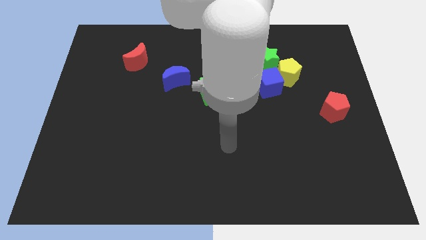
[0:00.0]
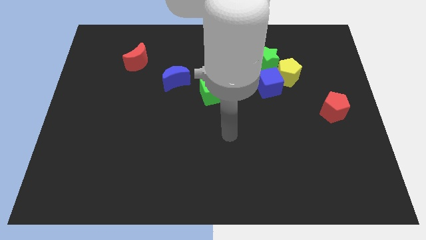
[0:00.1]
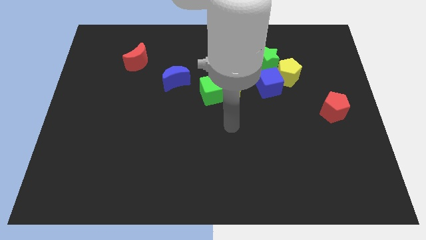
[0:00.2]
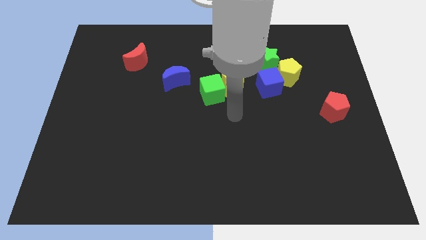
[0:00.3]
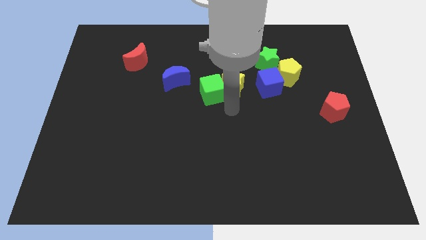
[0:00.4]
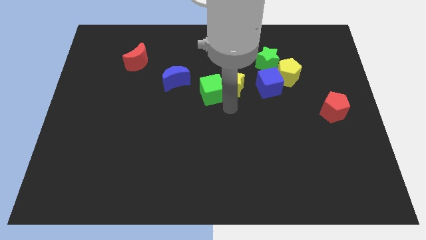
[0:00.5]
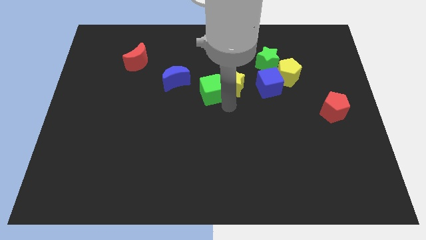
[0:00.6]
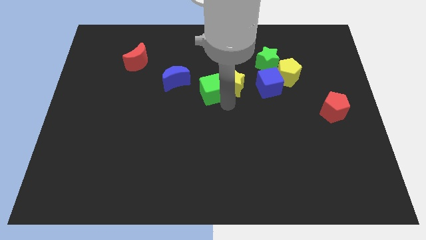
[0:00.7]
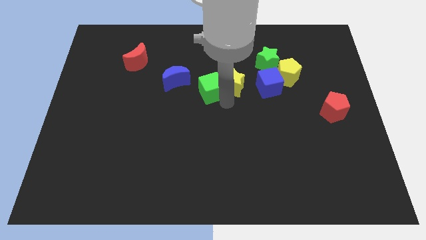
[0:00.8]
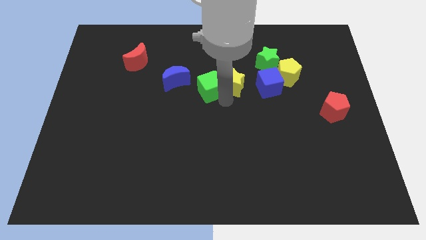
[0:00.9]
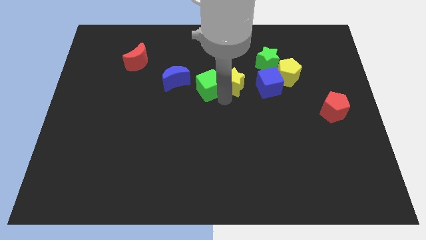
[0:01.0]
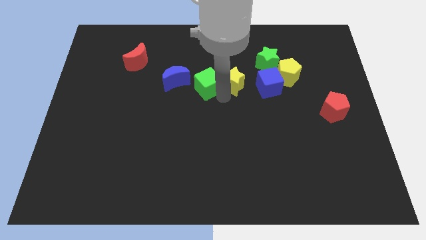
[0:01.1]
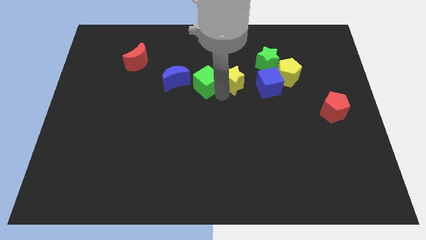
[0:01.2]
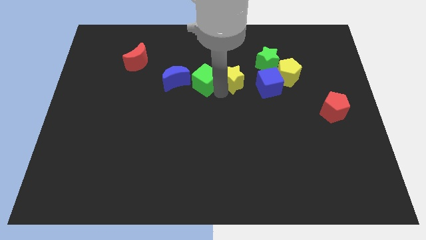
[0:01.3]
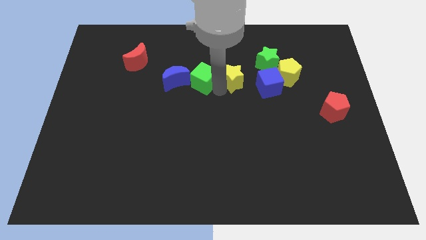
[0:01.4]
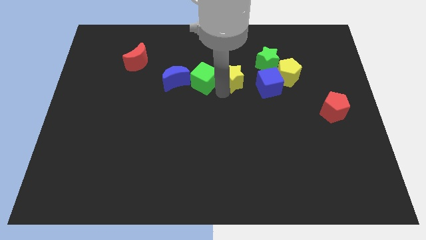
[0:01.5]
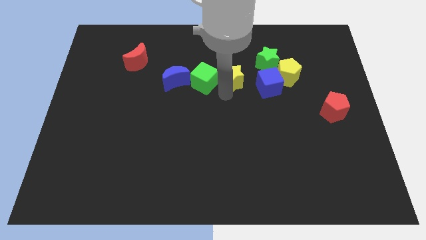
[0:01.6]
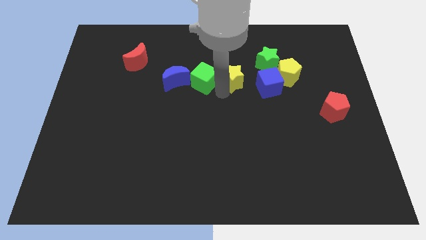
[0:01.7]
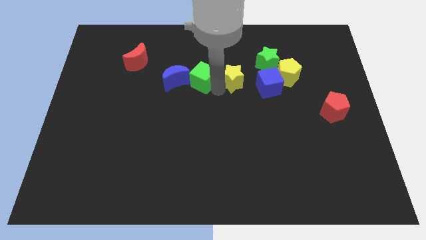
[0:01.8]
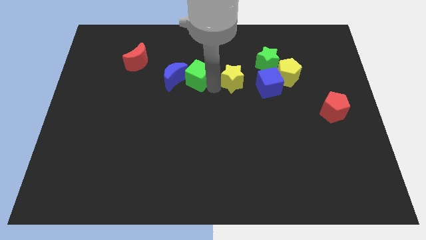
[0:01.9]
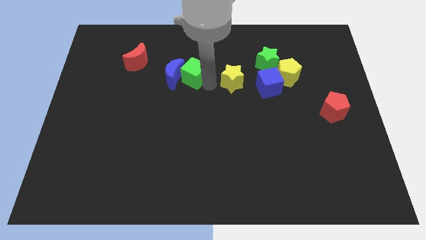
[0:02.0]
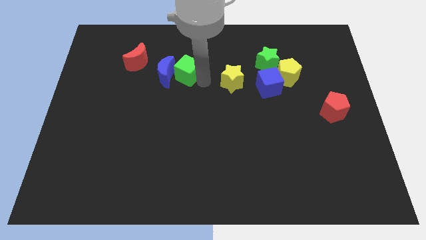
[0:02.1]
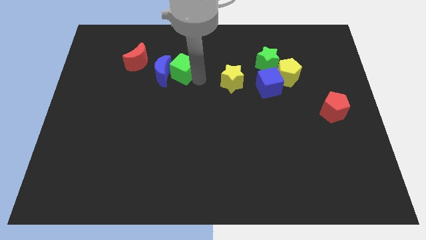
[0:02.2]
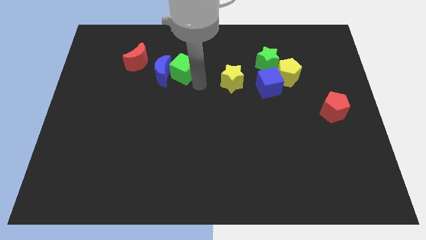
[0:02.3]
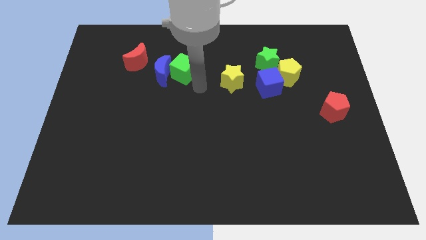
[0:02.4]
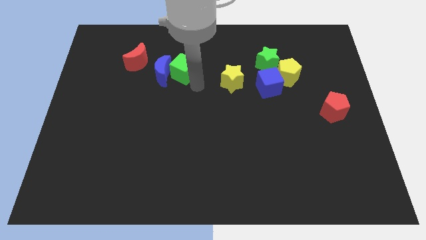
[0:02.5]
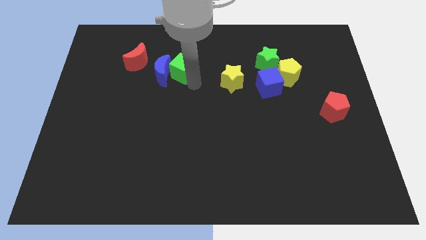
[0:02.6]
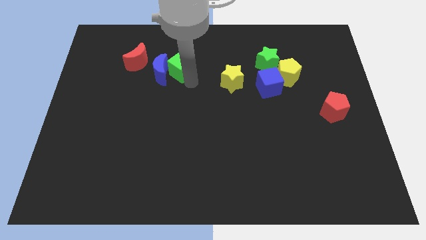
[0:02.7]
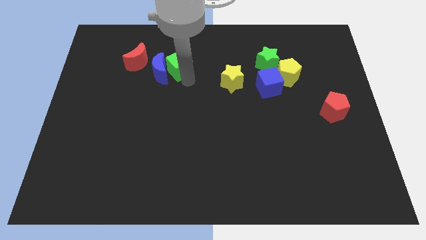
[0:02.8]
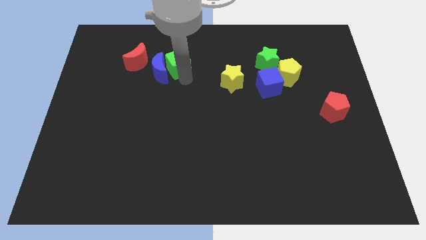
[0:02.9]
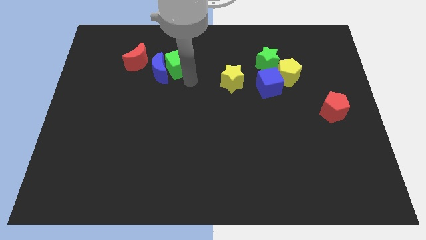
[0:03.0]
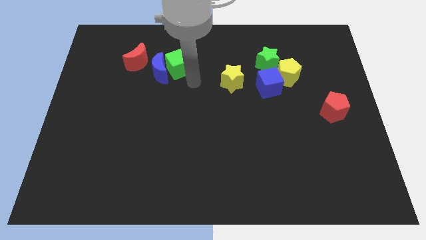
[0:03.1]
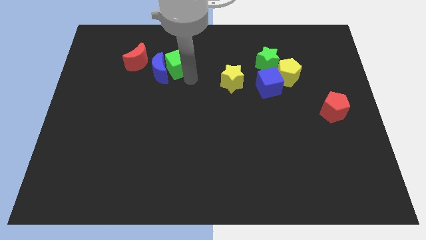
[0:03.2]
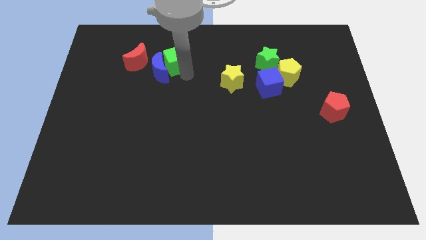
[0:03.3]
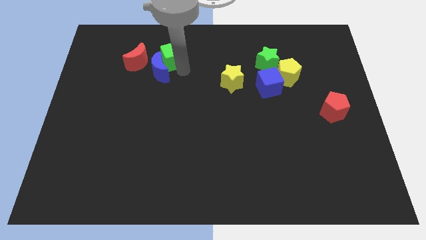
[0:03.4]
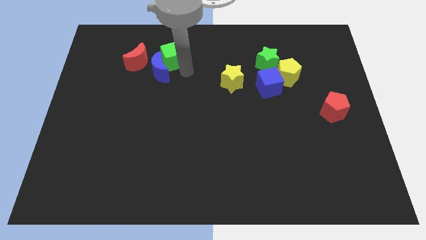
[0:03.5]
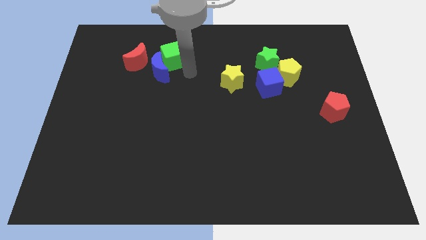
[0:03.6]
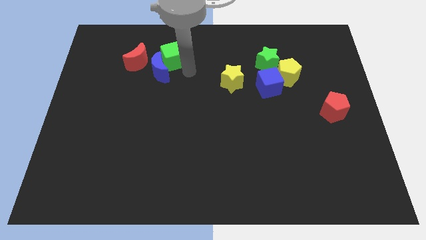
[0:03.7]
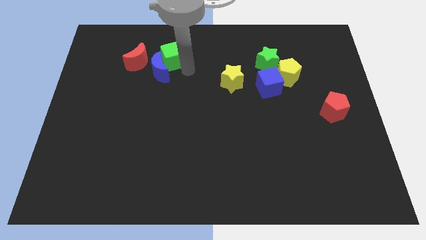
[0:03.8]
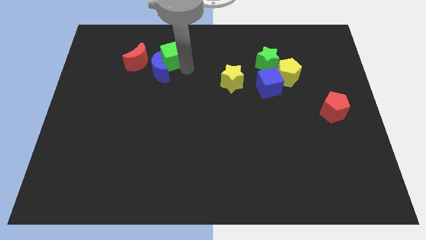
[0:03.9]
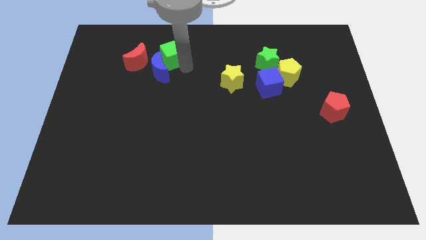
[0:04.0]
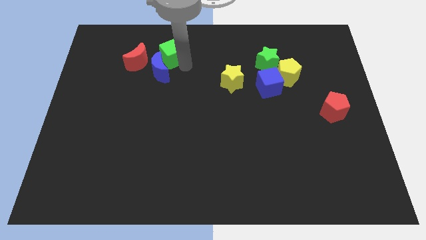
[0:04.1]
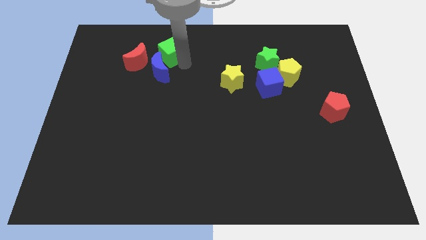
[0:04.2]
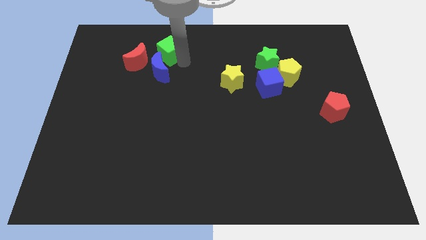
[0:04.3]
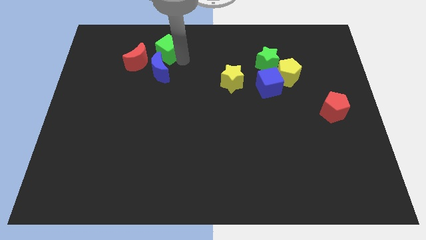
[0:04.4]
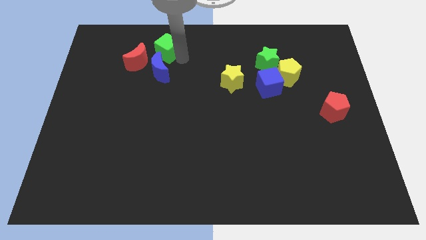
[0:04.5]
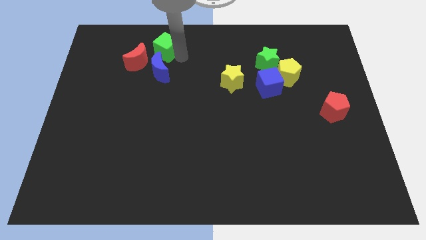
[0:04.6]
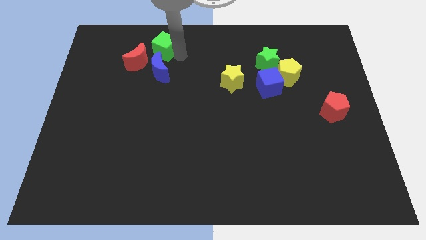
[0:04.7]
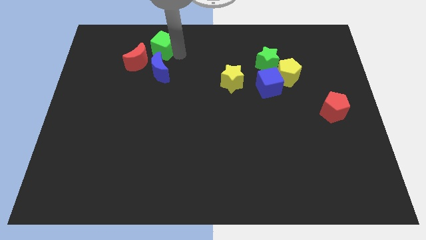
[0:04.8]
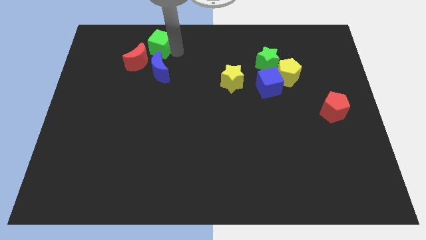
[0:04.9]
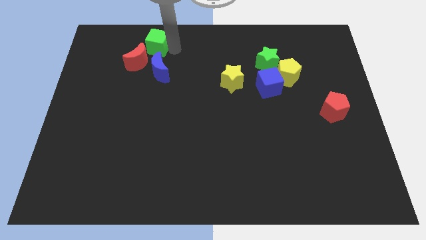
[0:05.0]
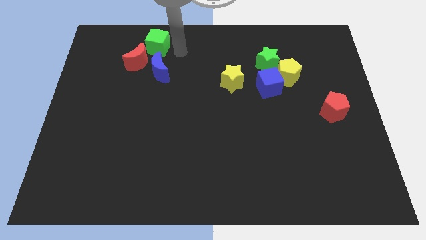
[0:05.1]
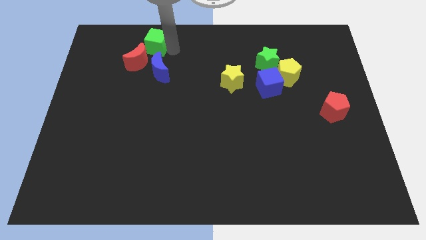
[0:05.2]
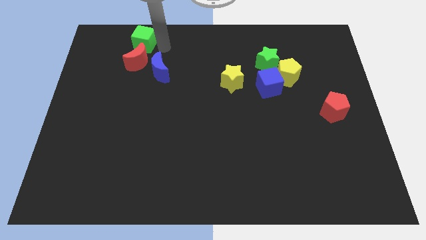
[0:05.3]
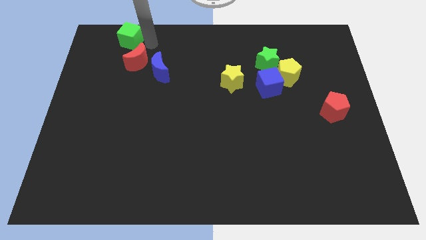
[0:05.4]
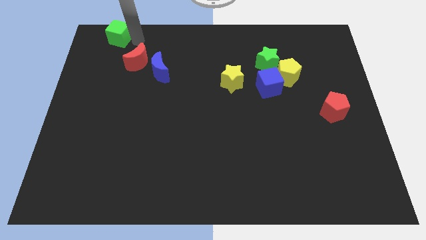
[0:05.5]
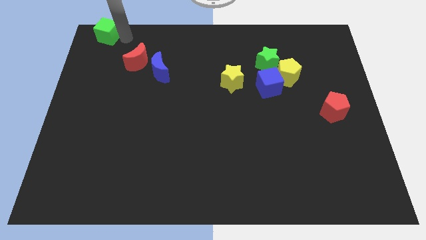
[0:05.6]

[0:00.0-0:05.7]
put the green cube to the top left
